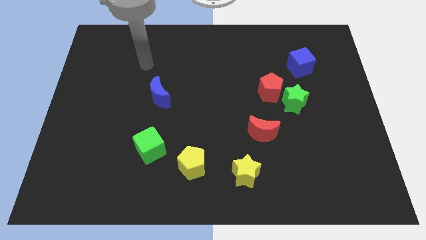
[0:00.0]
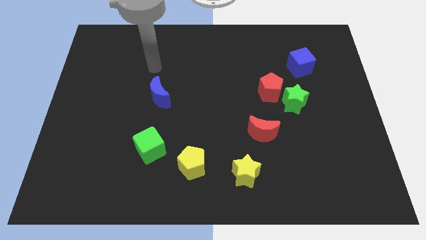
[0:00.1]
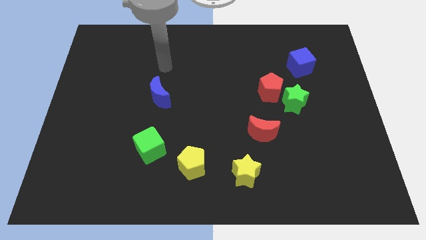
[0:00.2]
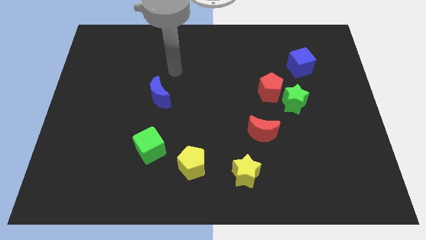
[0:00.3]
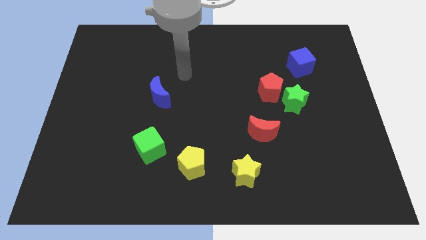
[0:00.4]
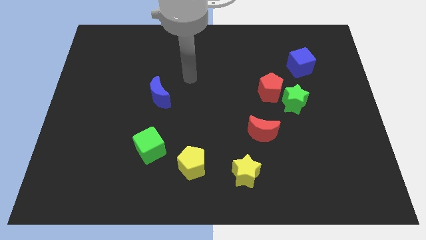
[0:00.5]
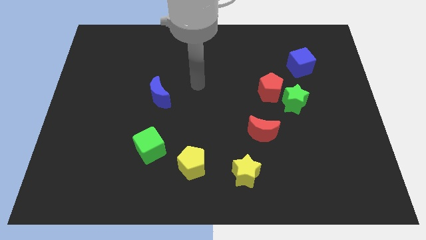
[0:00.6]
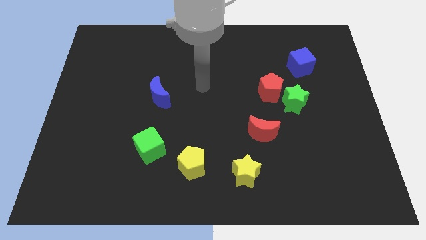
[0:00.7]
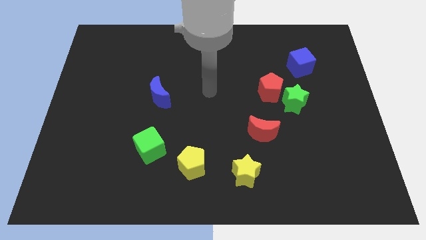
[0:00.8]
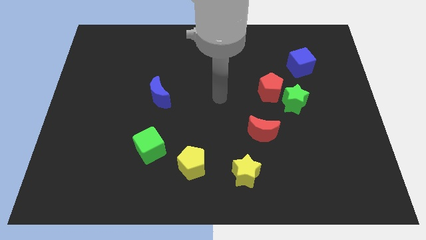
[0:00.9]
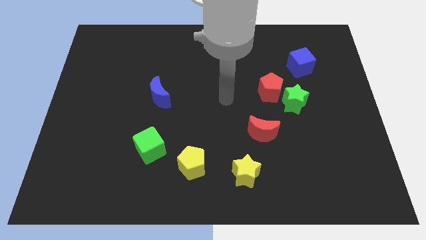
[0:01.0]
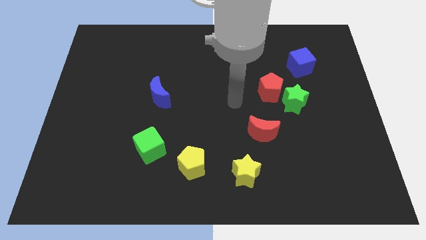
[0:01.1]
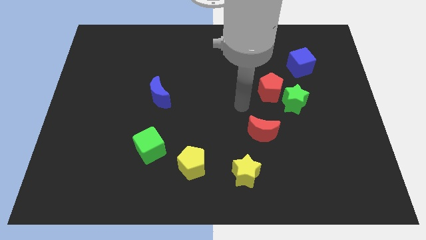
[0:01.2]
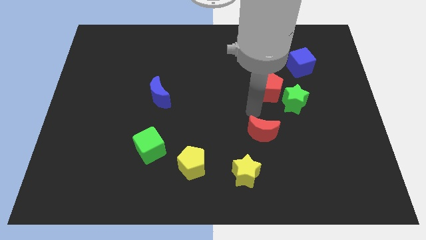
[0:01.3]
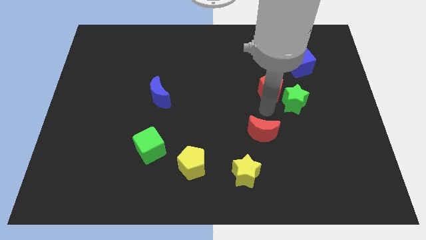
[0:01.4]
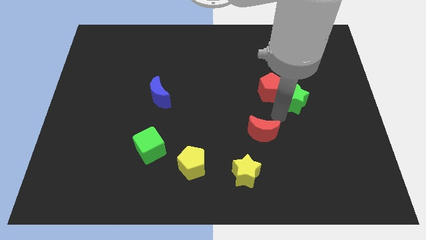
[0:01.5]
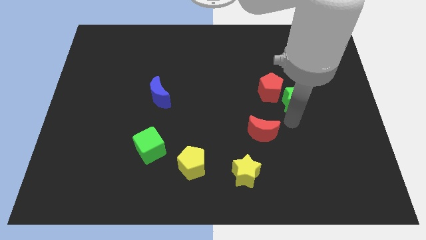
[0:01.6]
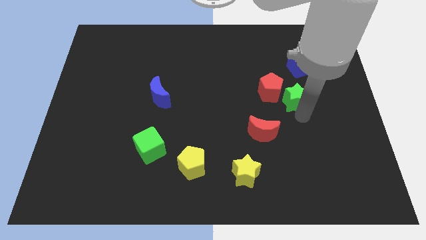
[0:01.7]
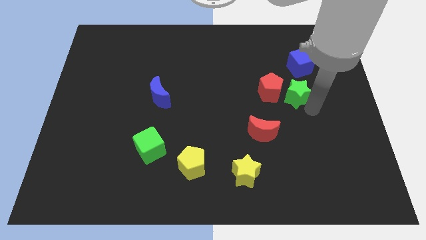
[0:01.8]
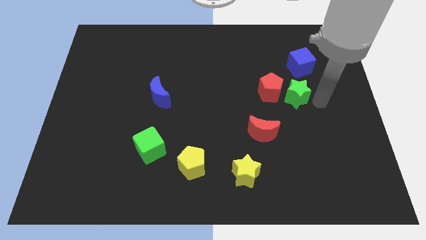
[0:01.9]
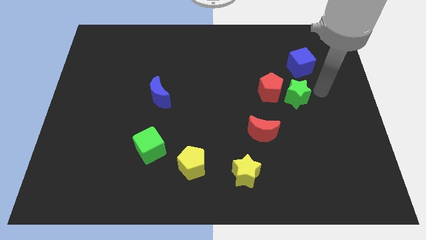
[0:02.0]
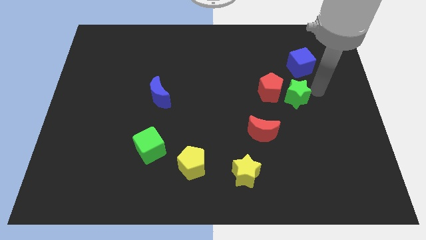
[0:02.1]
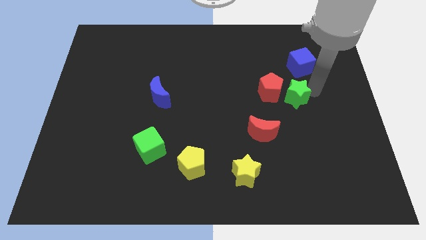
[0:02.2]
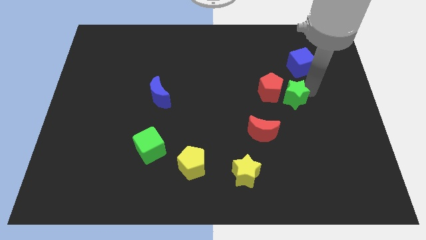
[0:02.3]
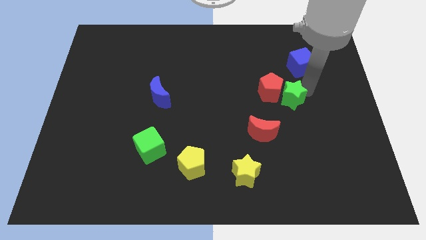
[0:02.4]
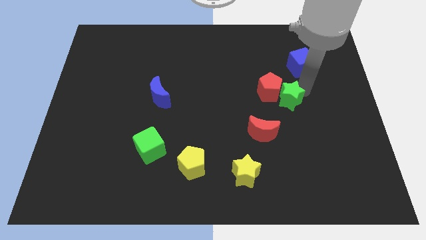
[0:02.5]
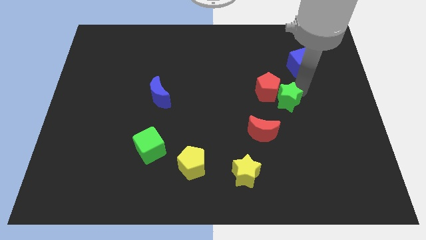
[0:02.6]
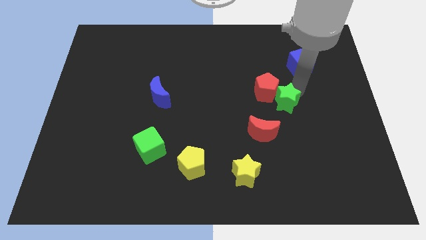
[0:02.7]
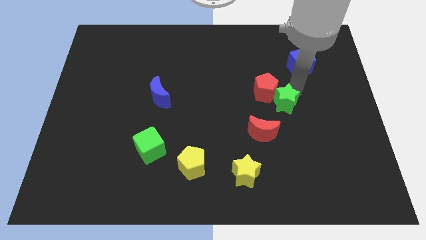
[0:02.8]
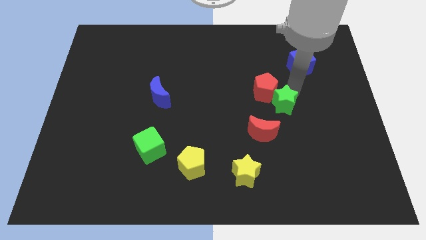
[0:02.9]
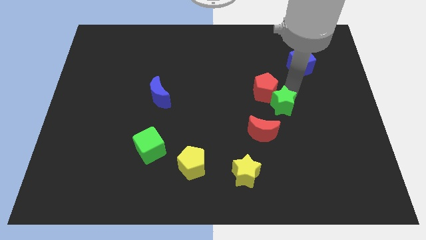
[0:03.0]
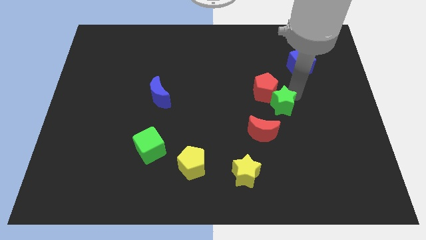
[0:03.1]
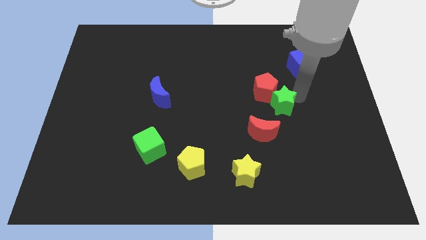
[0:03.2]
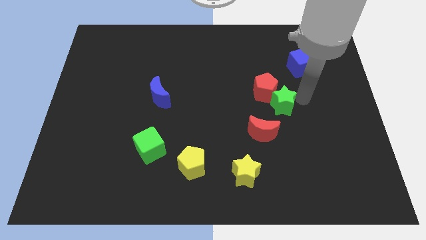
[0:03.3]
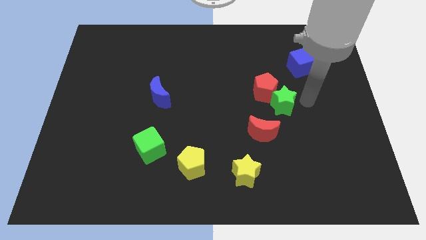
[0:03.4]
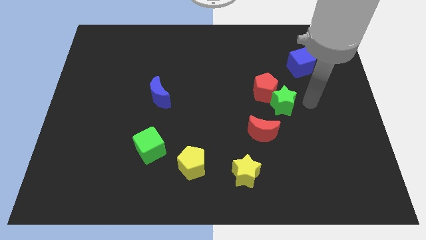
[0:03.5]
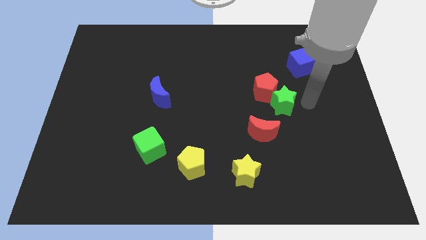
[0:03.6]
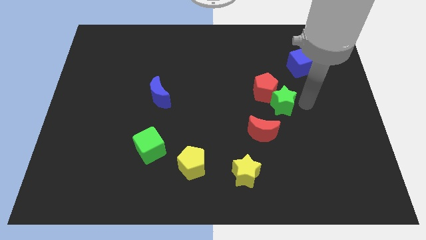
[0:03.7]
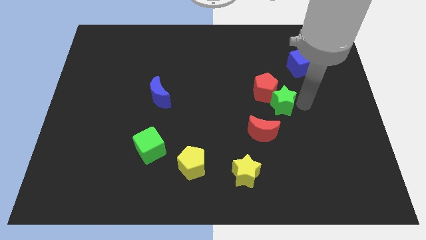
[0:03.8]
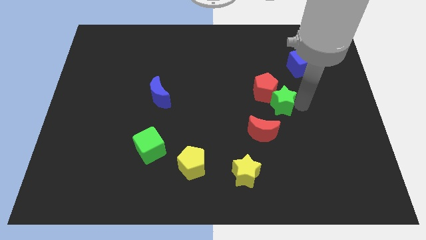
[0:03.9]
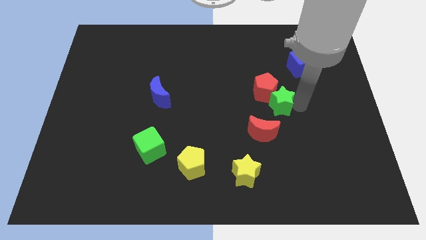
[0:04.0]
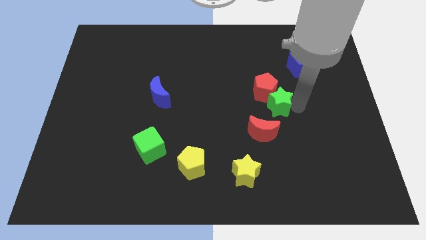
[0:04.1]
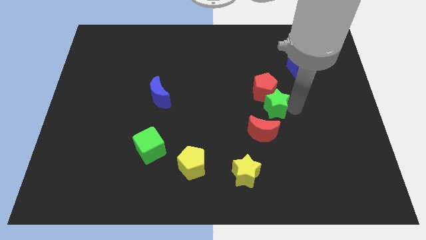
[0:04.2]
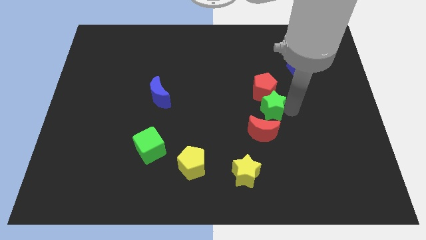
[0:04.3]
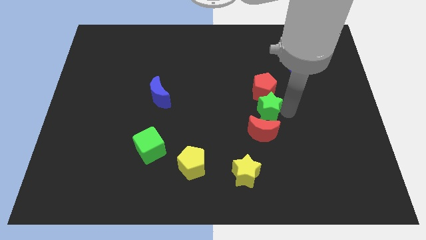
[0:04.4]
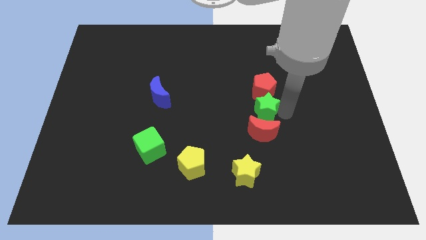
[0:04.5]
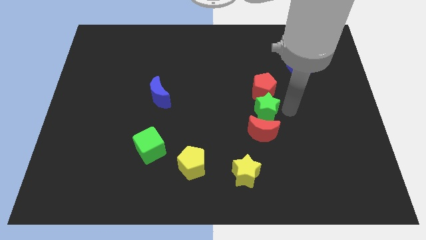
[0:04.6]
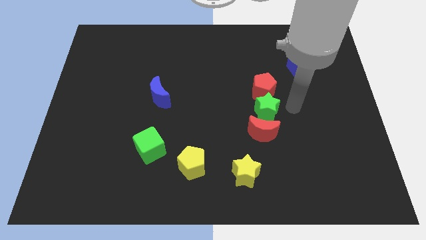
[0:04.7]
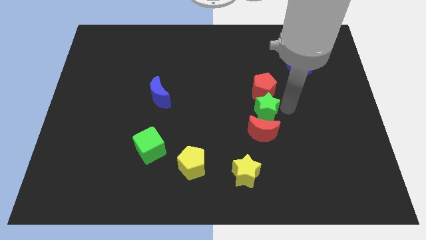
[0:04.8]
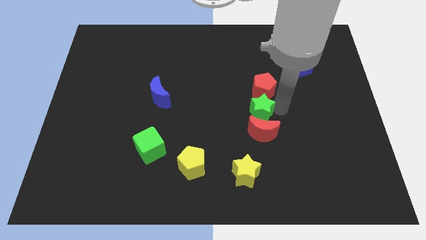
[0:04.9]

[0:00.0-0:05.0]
move the green star diagonally downwards and left slightly

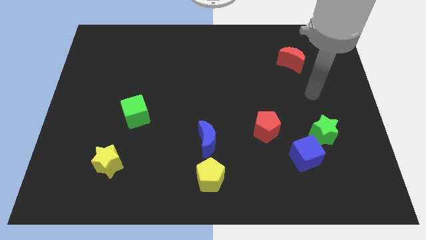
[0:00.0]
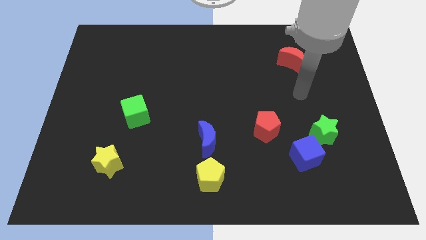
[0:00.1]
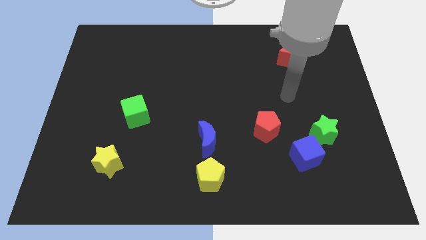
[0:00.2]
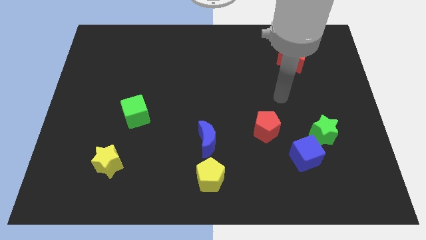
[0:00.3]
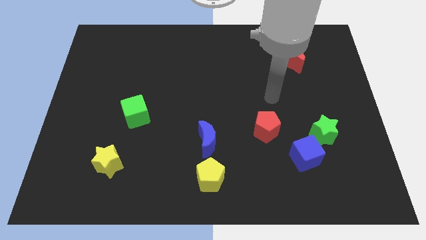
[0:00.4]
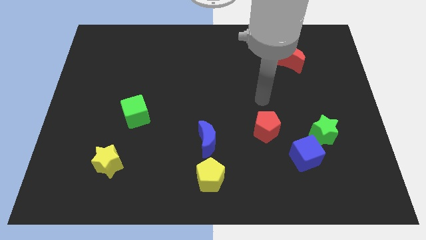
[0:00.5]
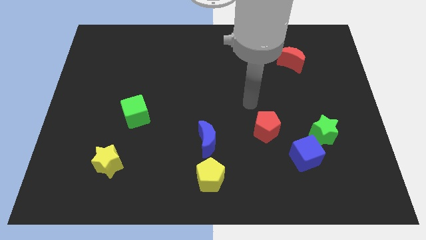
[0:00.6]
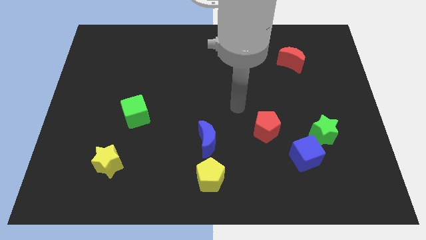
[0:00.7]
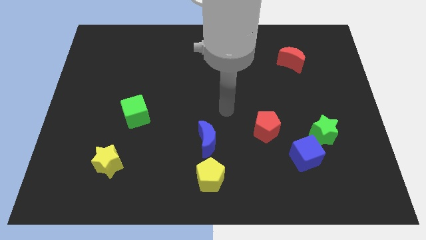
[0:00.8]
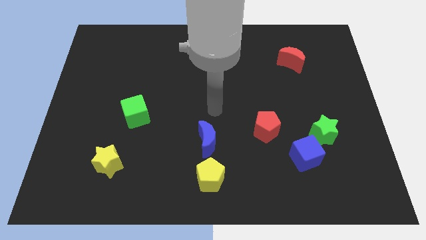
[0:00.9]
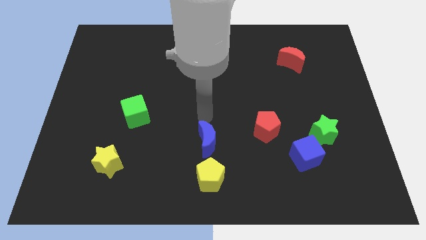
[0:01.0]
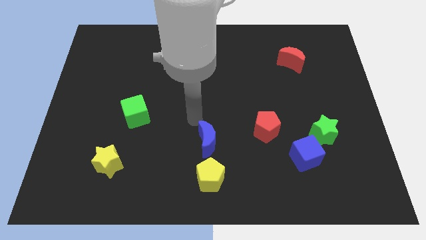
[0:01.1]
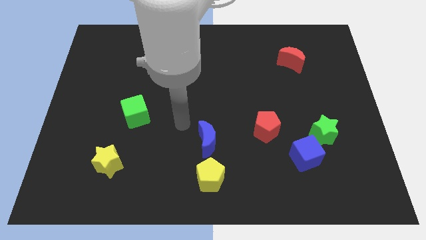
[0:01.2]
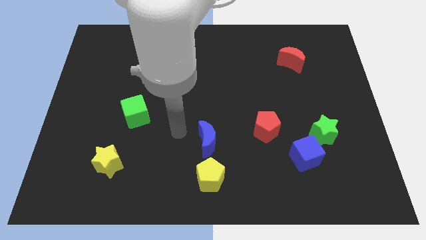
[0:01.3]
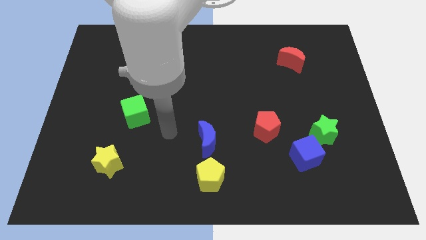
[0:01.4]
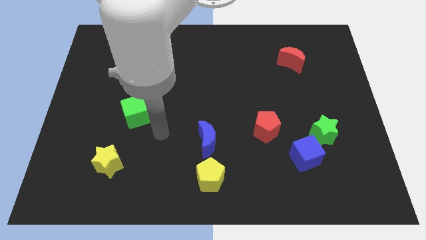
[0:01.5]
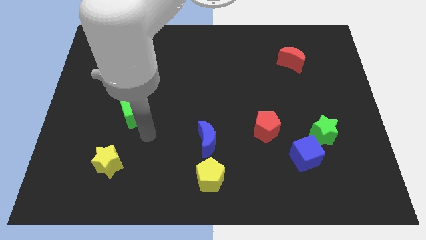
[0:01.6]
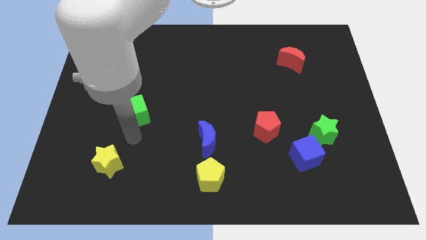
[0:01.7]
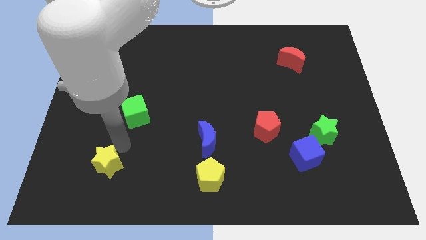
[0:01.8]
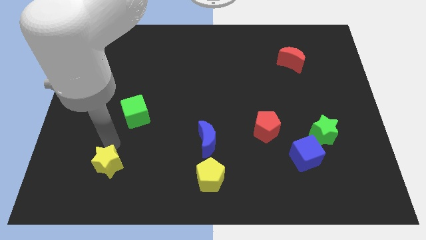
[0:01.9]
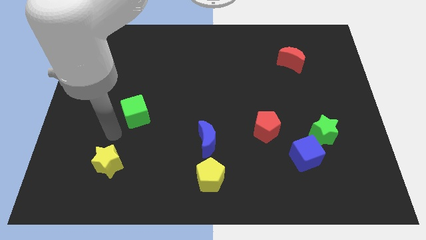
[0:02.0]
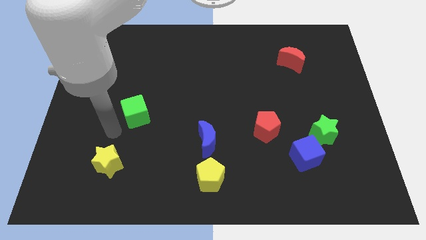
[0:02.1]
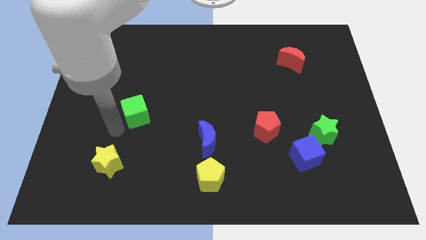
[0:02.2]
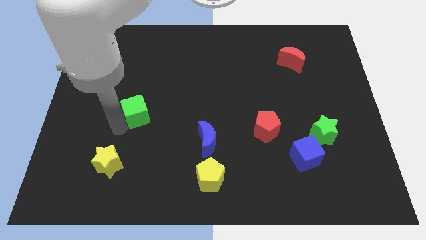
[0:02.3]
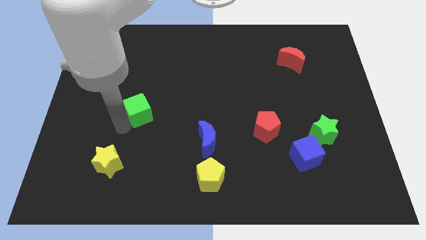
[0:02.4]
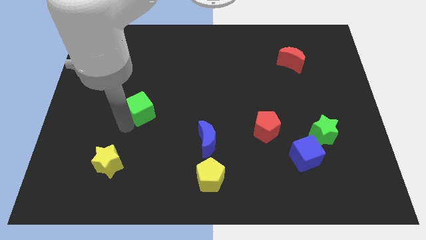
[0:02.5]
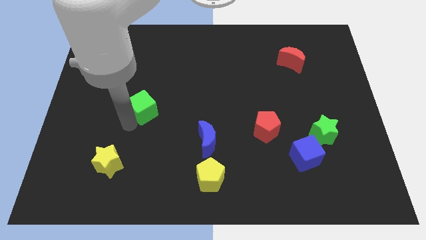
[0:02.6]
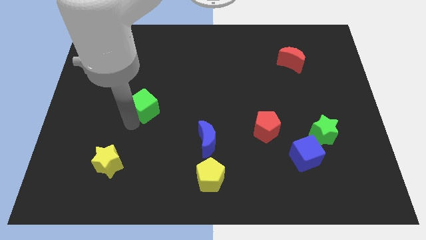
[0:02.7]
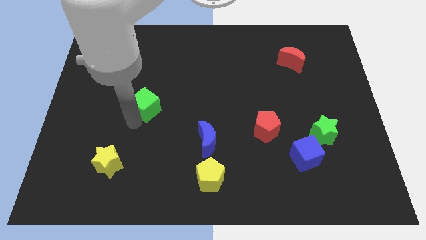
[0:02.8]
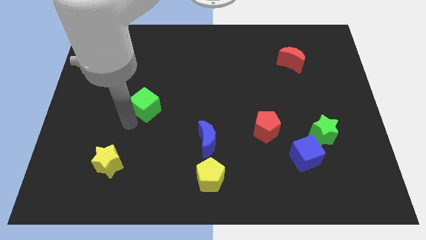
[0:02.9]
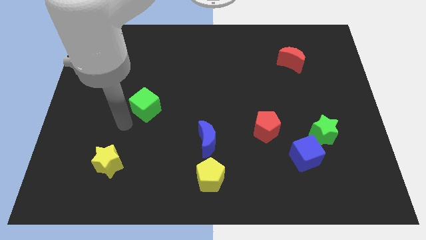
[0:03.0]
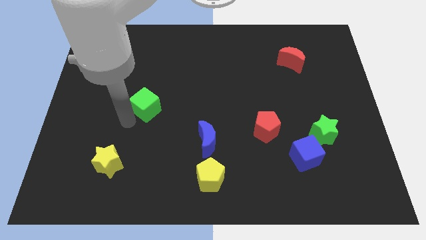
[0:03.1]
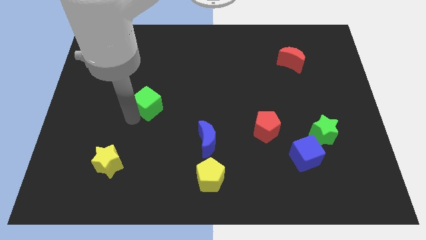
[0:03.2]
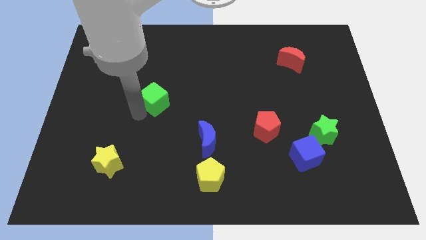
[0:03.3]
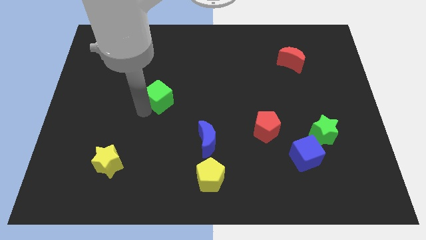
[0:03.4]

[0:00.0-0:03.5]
slightly move the green cube up and to the right diagonally

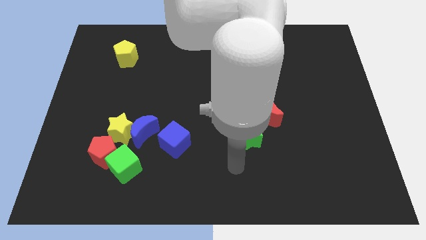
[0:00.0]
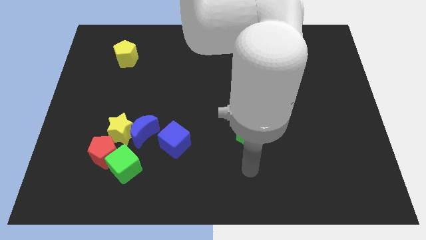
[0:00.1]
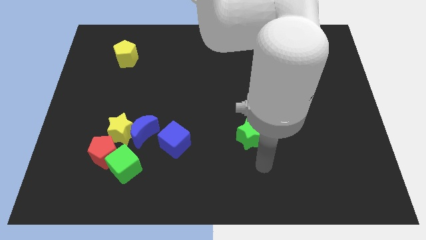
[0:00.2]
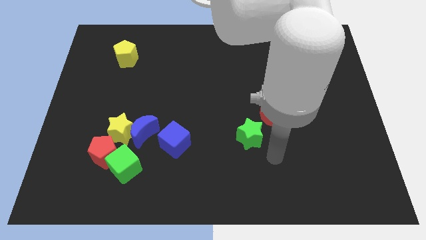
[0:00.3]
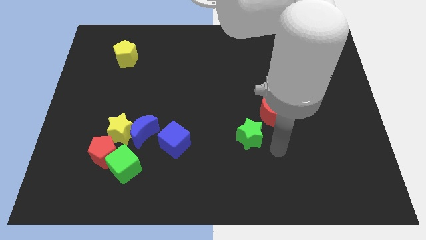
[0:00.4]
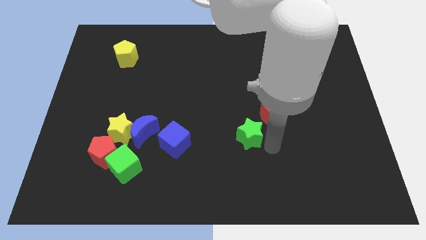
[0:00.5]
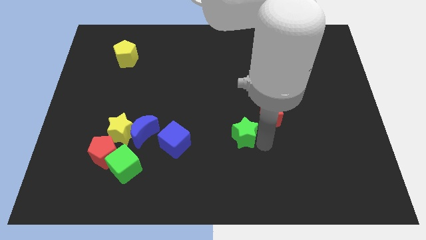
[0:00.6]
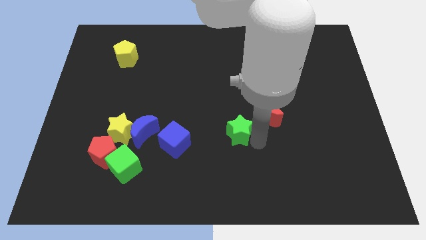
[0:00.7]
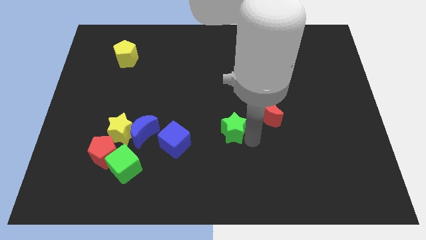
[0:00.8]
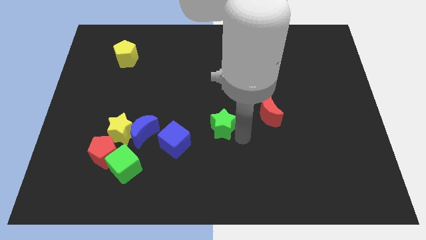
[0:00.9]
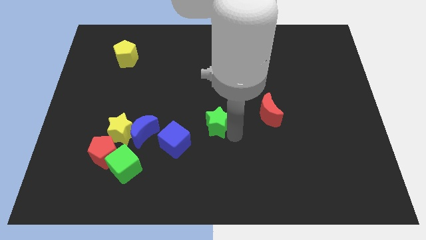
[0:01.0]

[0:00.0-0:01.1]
push the green star up and left diagonally a bit
